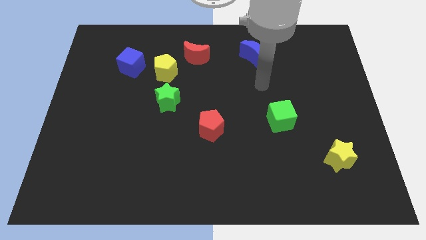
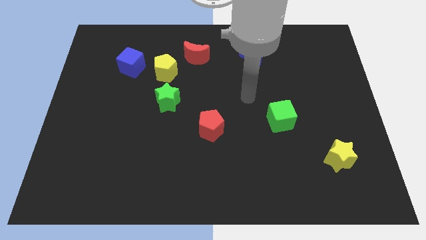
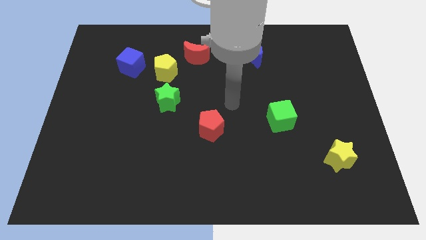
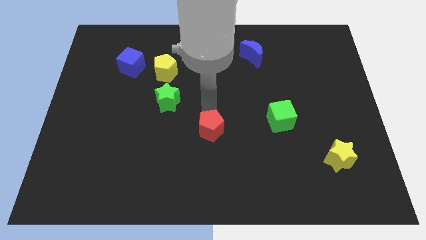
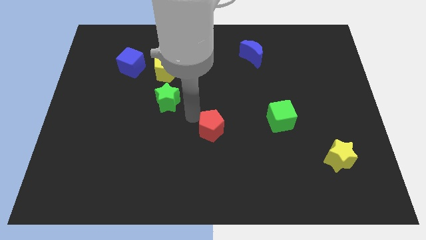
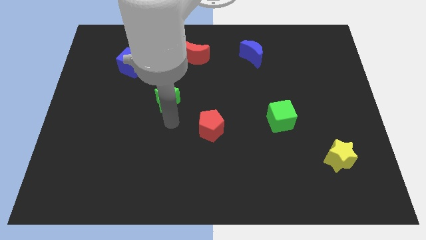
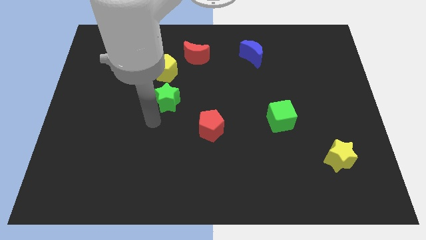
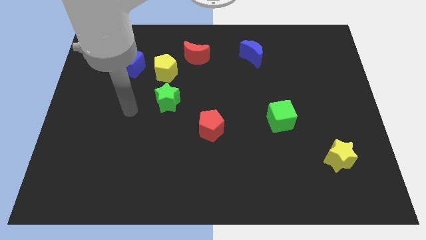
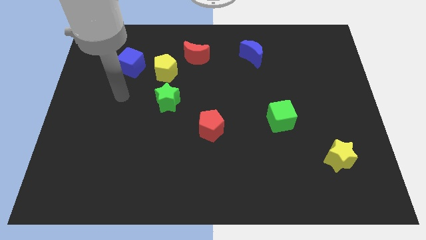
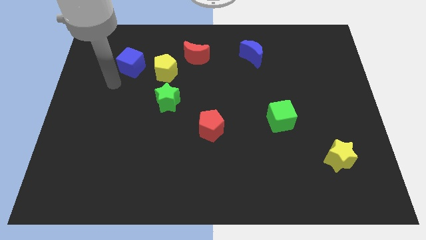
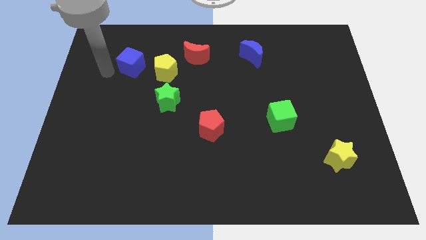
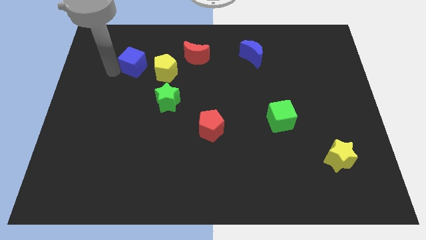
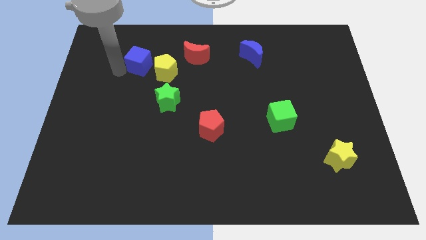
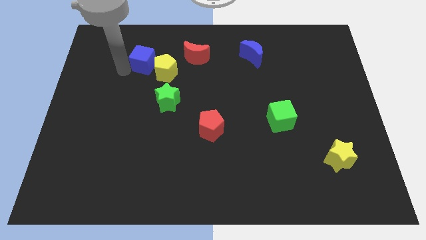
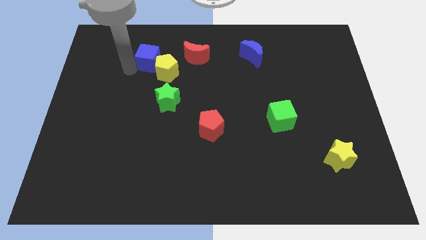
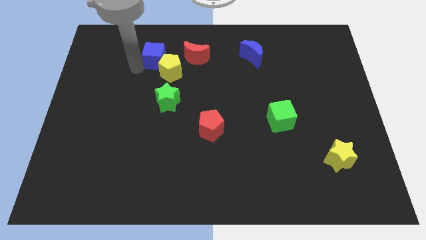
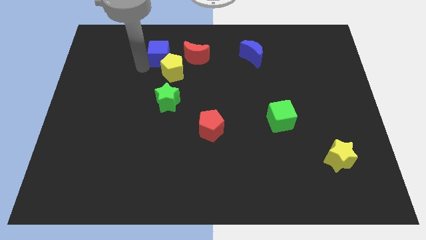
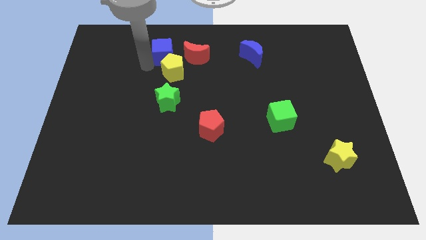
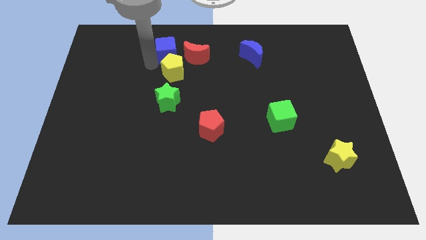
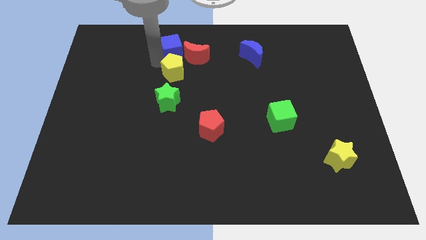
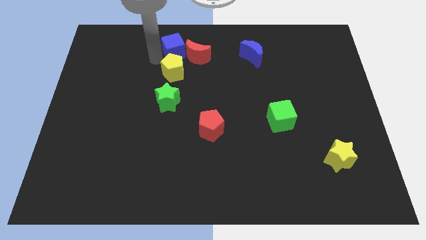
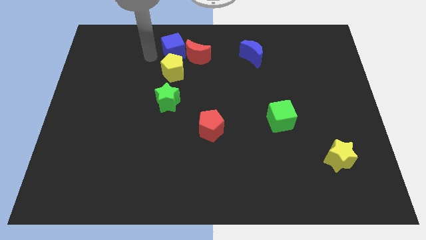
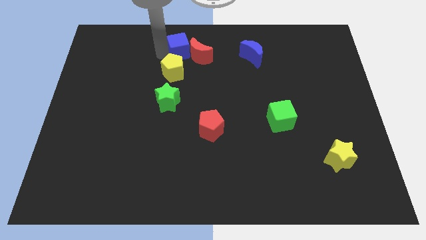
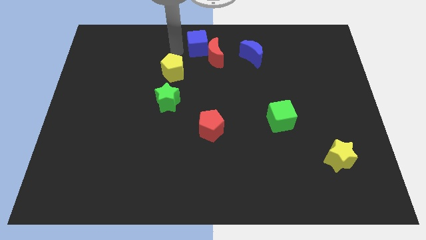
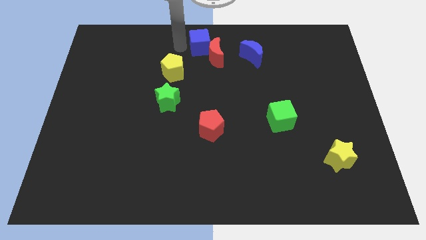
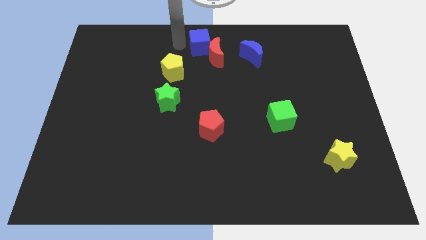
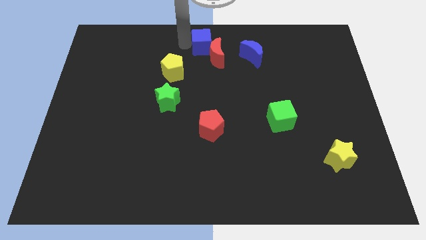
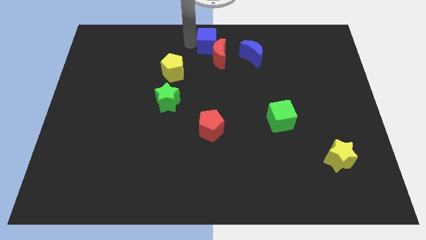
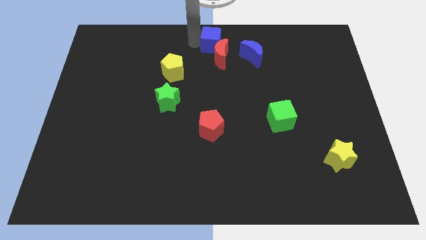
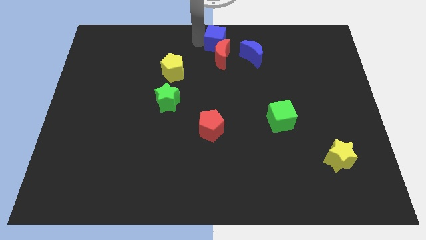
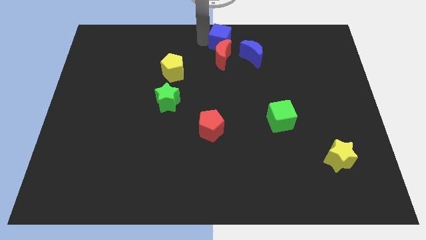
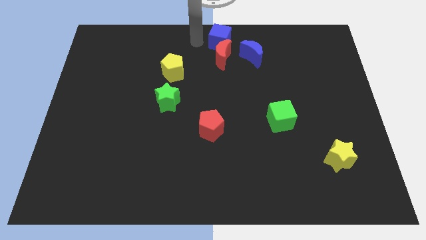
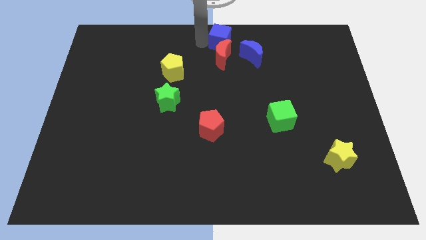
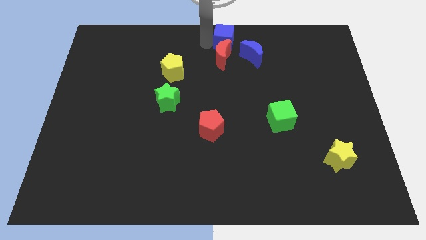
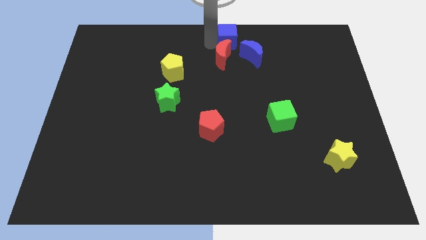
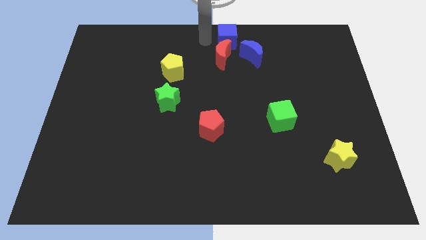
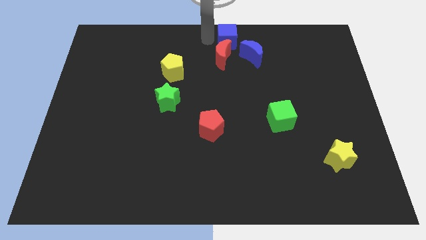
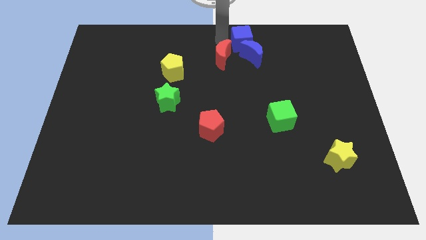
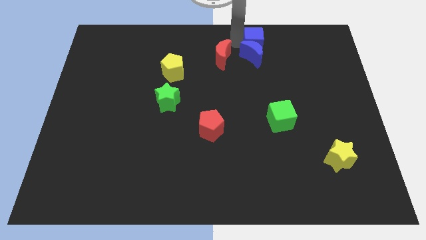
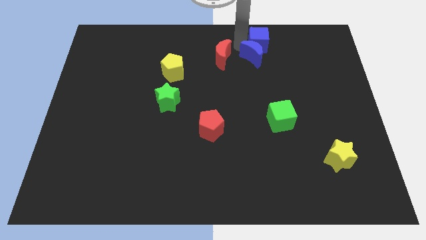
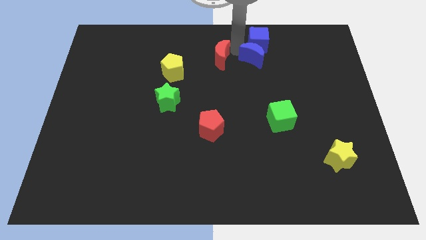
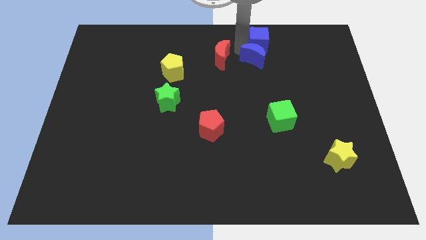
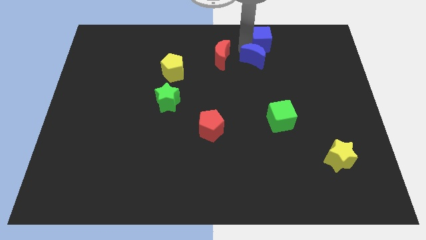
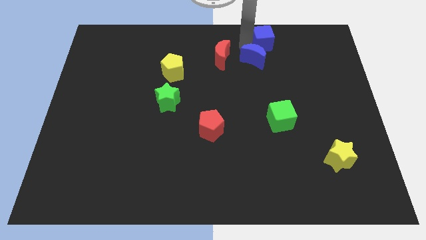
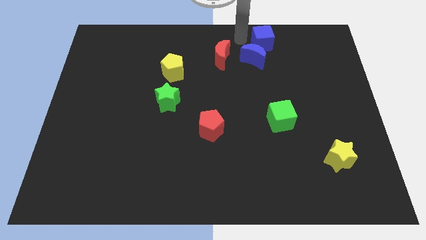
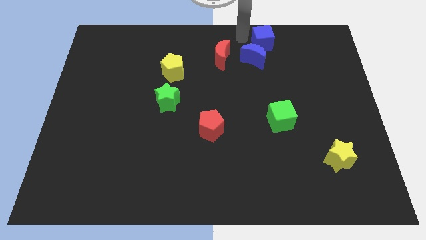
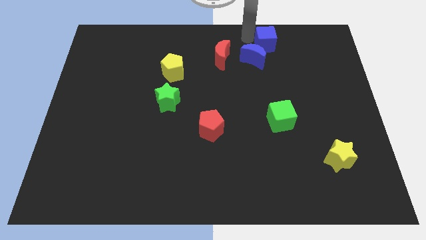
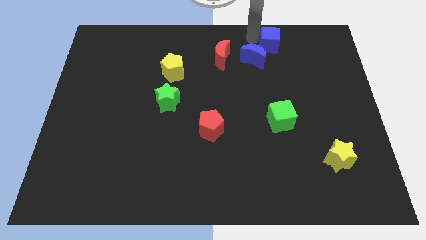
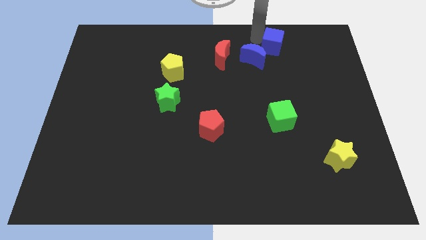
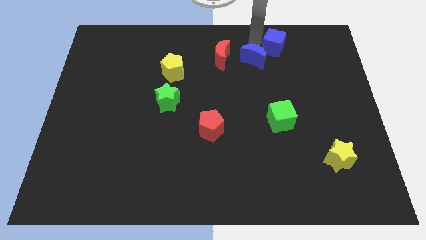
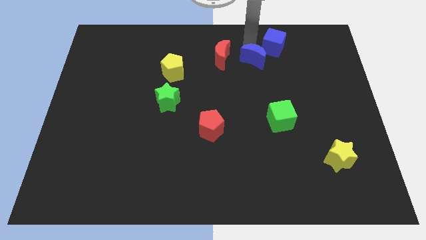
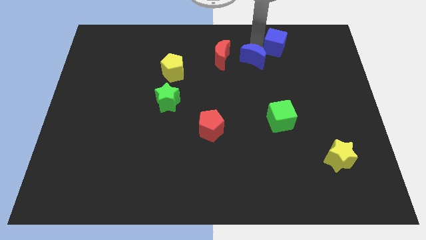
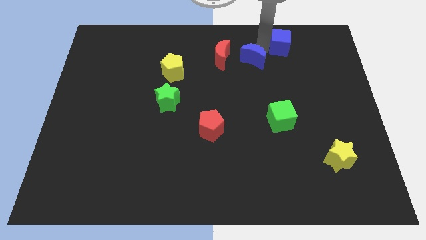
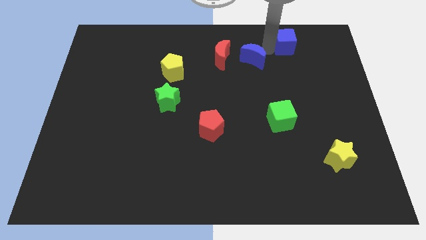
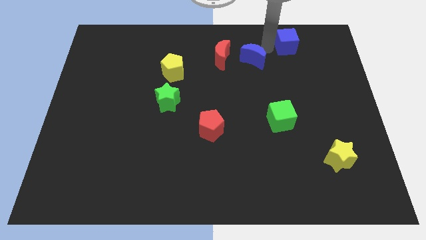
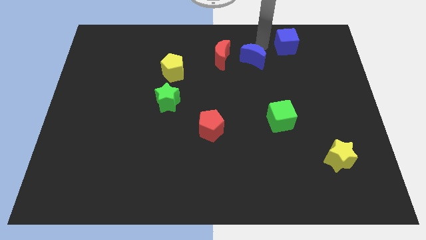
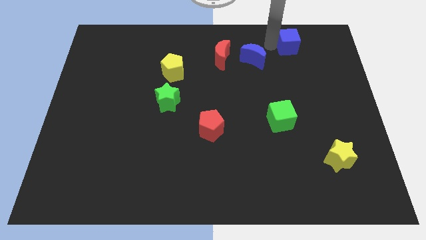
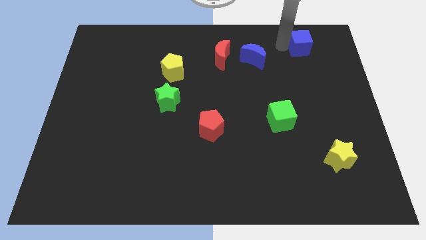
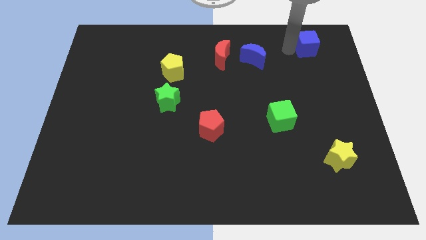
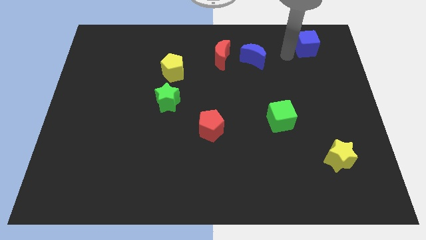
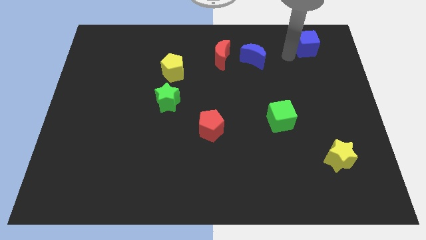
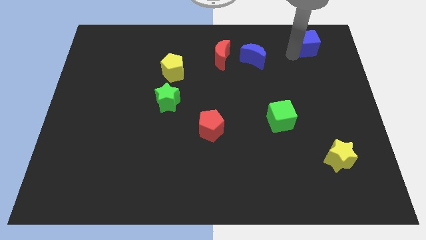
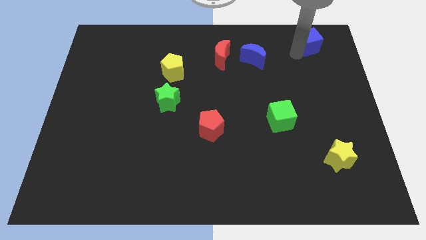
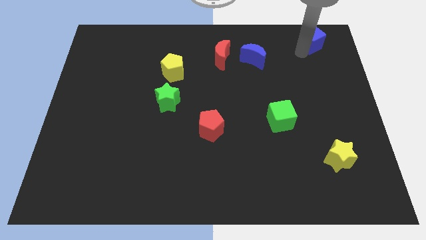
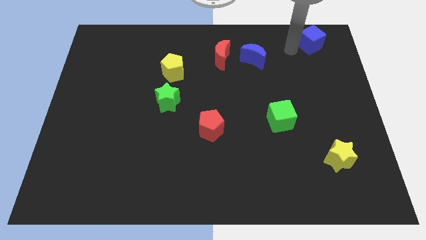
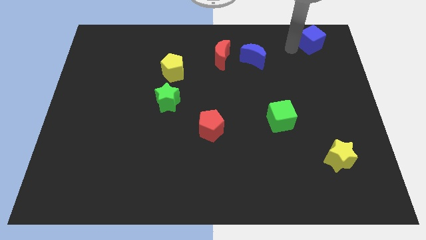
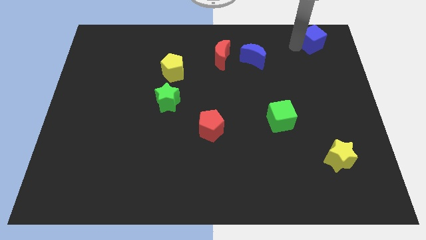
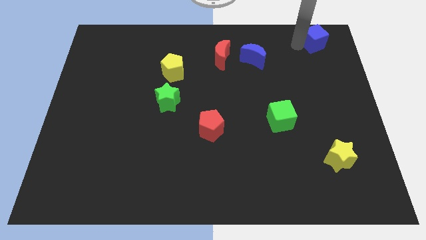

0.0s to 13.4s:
push the blue cube to the top right corner
